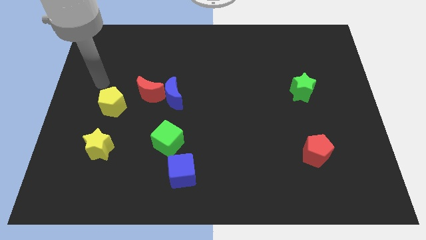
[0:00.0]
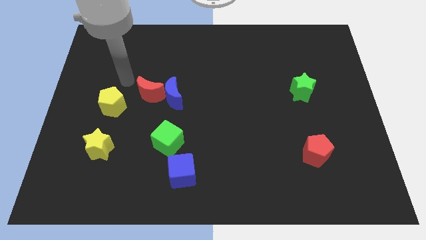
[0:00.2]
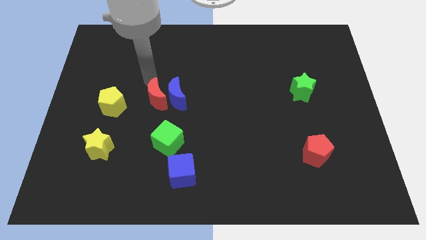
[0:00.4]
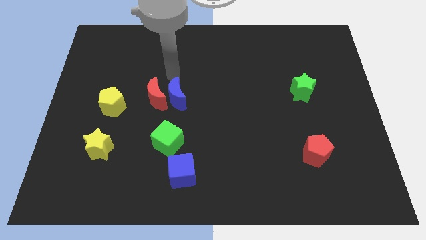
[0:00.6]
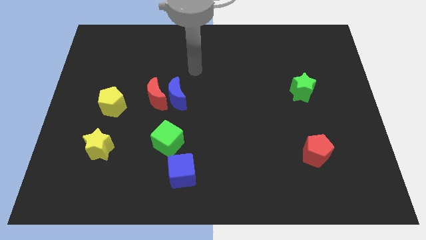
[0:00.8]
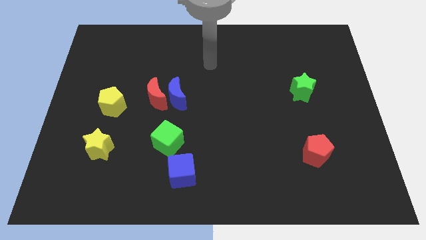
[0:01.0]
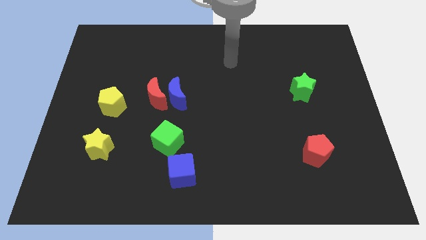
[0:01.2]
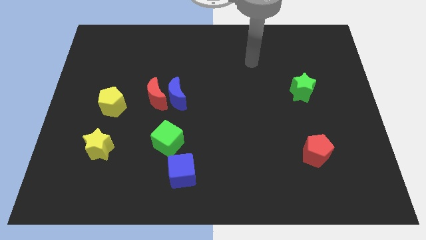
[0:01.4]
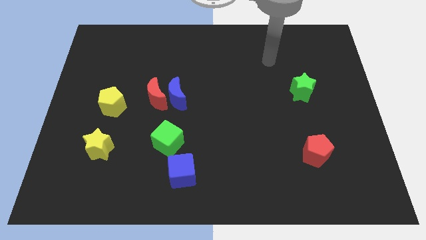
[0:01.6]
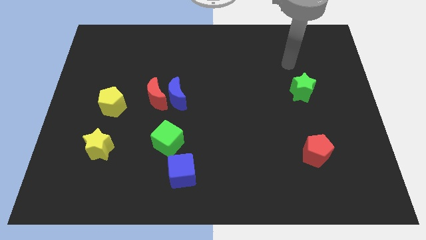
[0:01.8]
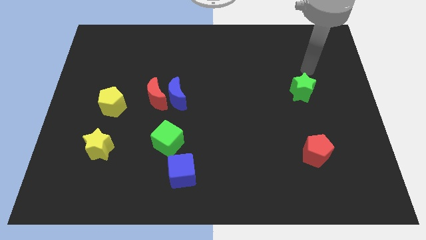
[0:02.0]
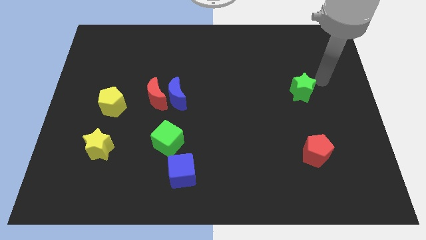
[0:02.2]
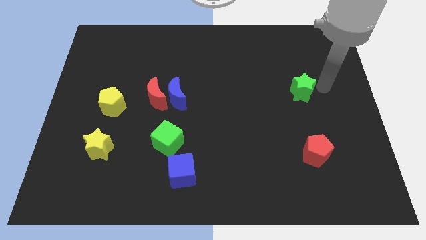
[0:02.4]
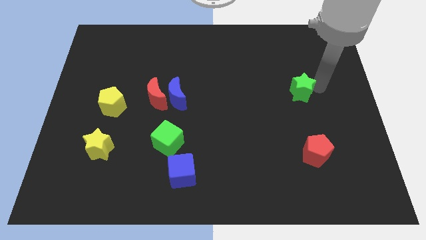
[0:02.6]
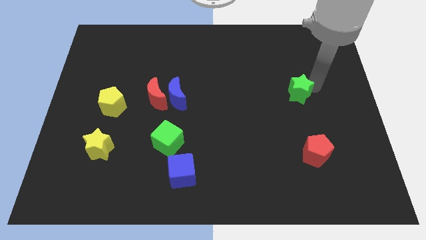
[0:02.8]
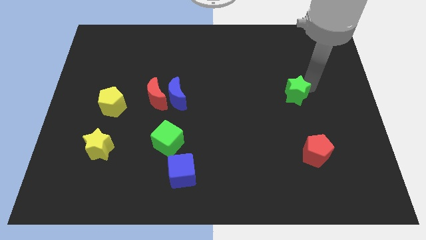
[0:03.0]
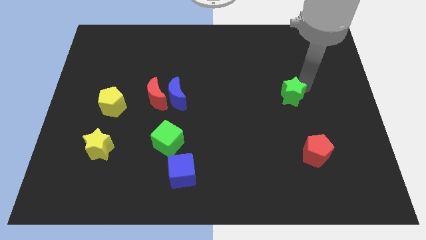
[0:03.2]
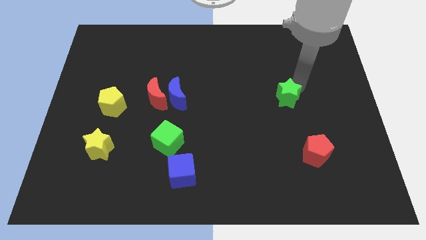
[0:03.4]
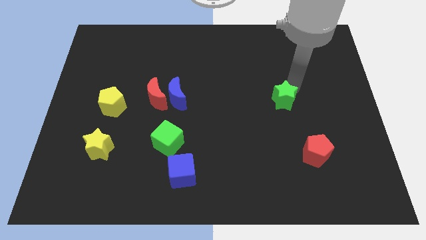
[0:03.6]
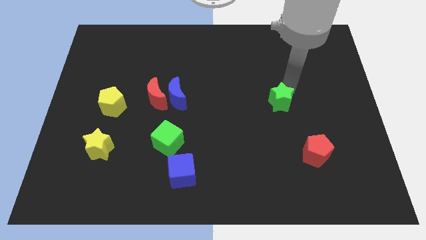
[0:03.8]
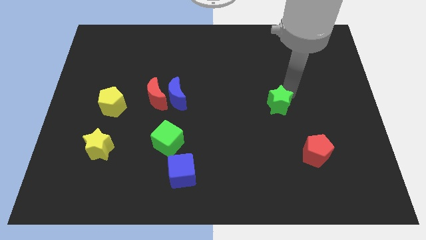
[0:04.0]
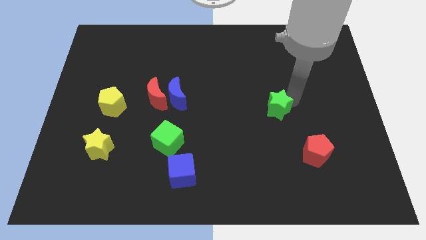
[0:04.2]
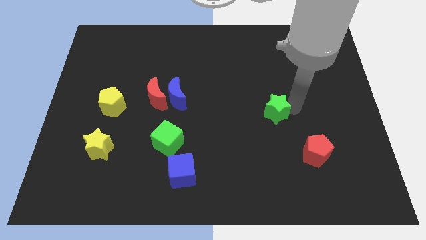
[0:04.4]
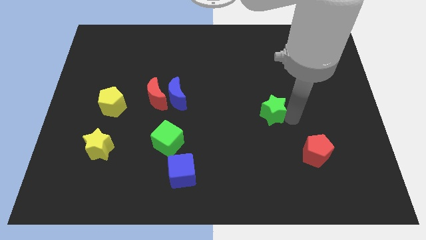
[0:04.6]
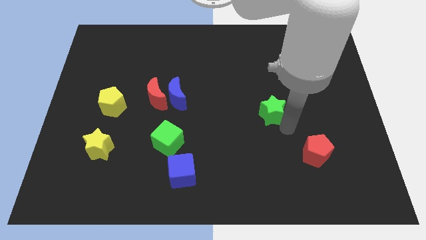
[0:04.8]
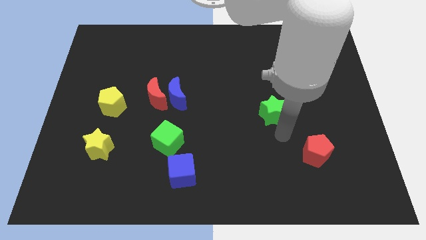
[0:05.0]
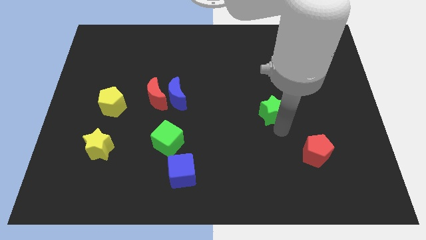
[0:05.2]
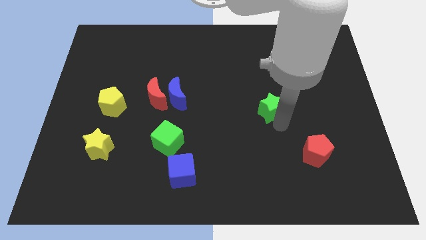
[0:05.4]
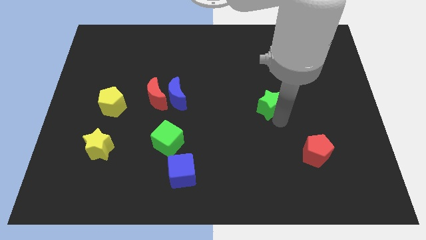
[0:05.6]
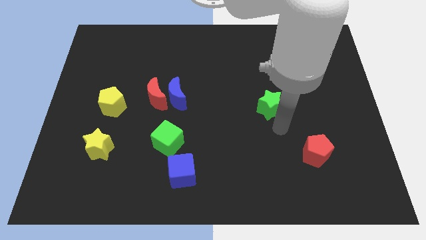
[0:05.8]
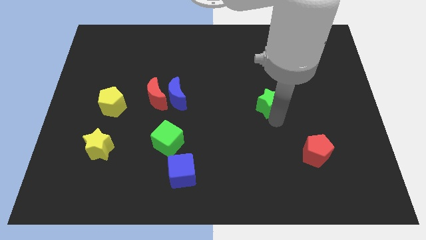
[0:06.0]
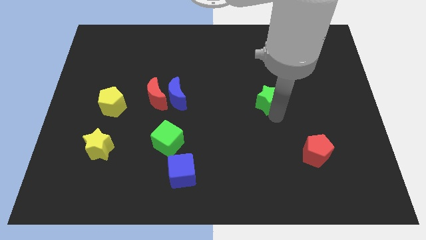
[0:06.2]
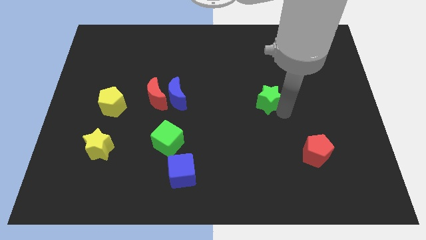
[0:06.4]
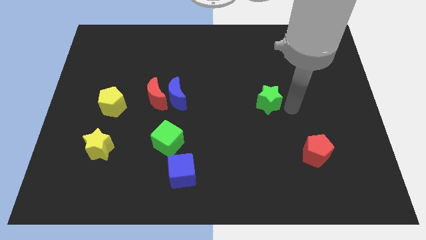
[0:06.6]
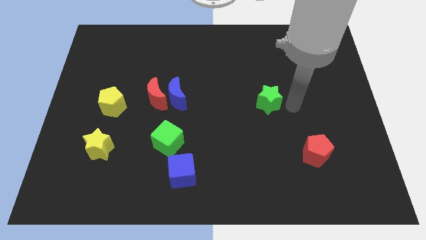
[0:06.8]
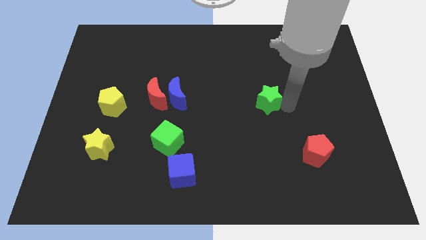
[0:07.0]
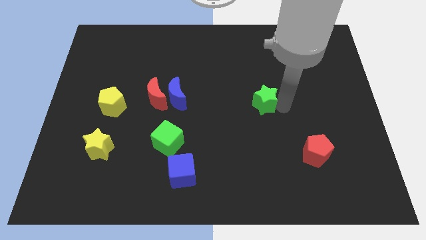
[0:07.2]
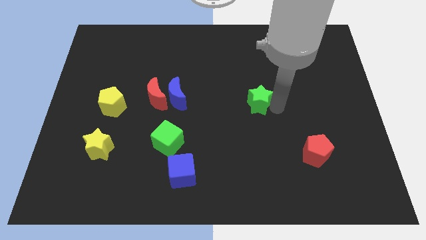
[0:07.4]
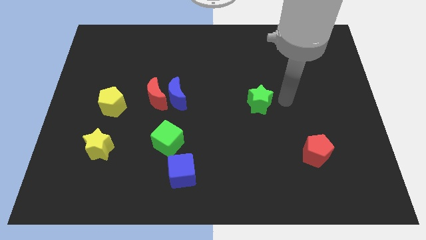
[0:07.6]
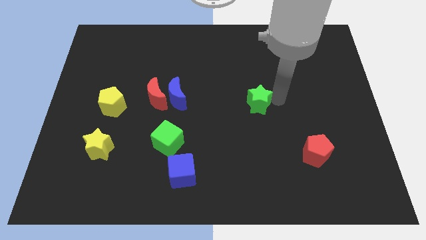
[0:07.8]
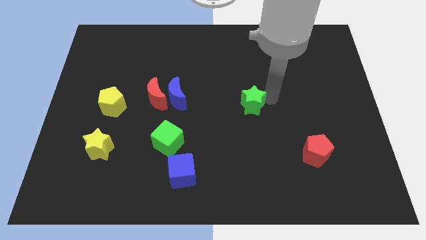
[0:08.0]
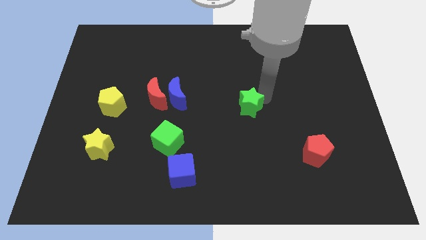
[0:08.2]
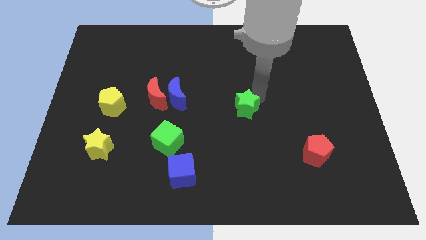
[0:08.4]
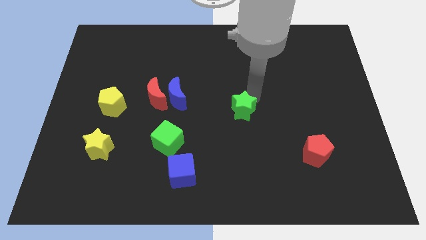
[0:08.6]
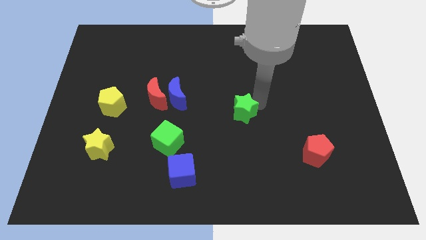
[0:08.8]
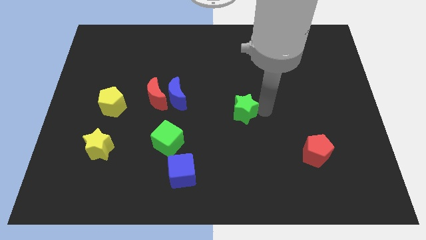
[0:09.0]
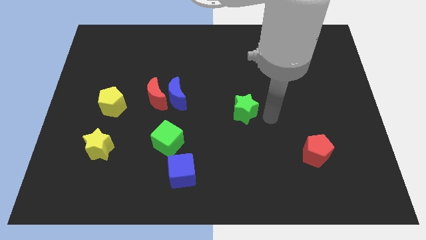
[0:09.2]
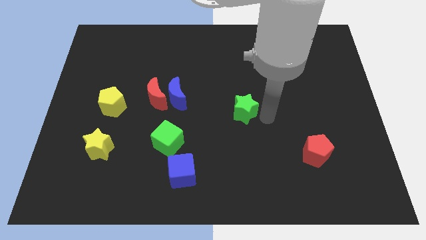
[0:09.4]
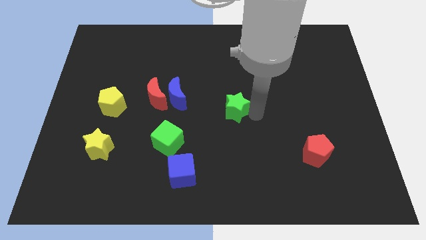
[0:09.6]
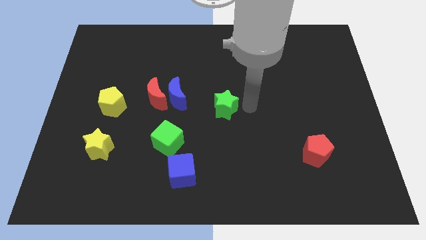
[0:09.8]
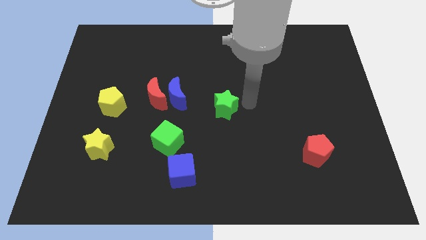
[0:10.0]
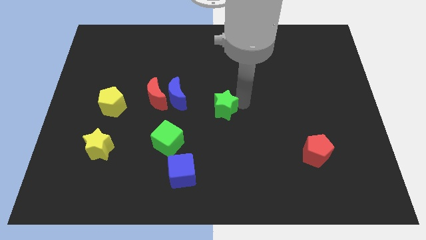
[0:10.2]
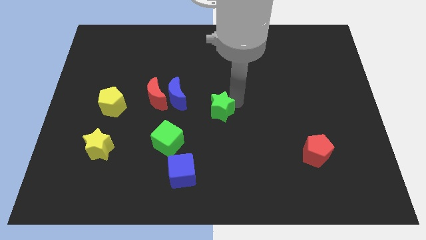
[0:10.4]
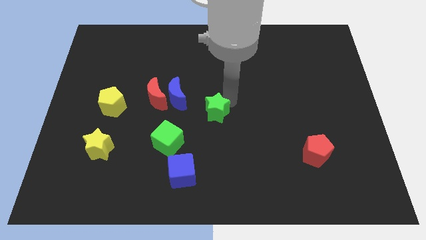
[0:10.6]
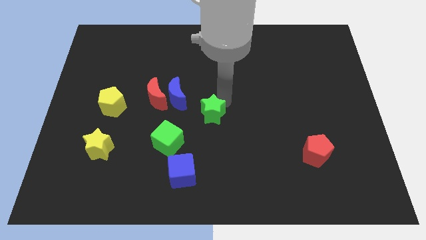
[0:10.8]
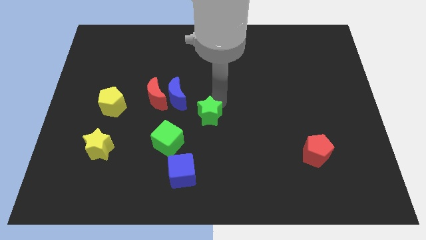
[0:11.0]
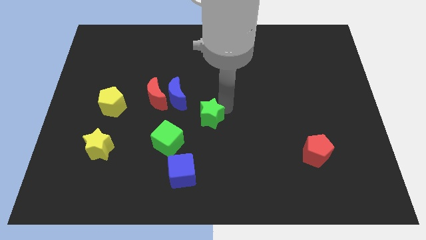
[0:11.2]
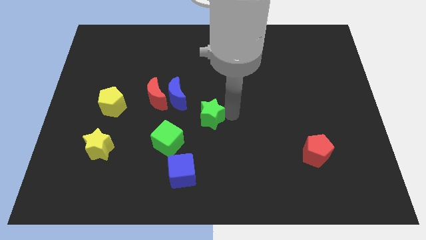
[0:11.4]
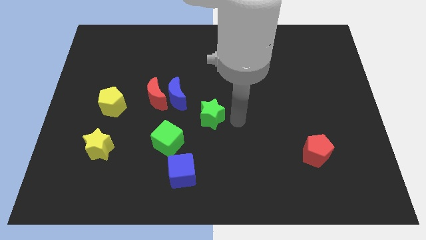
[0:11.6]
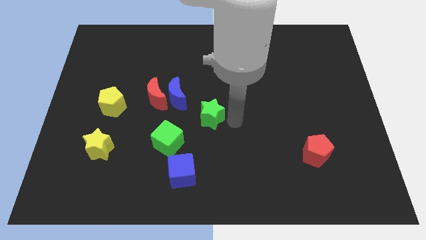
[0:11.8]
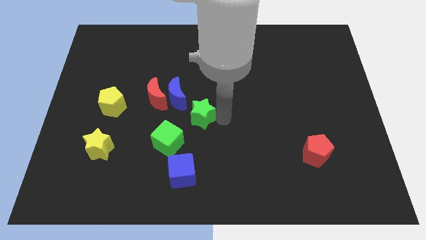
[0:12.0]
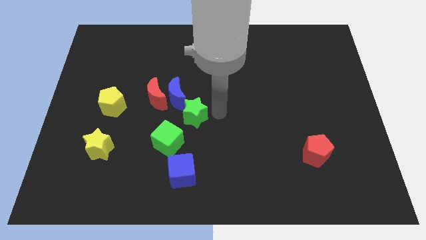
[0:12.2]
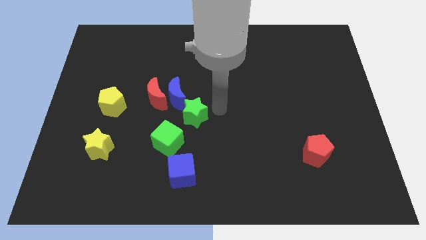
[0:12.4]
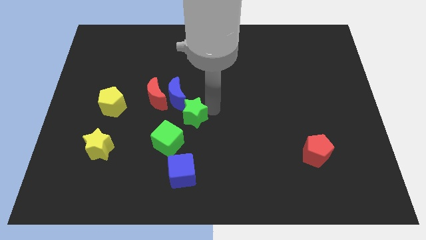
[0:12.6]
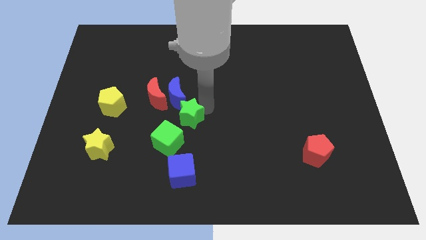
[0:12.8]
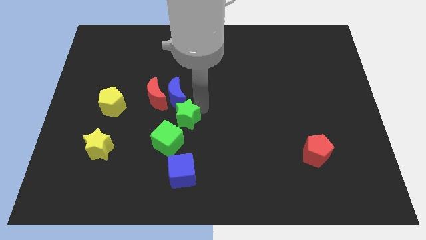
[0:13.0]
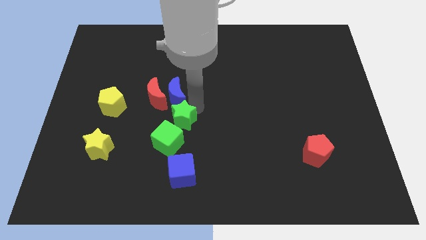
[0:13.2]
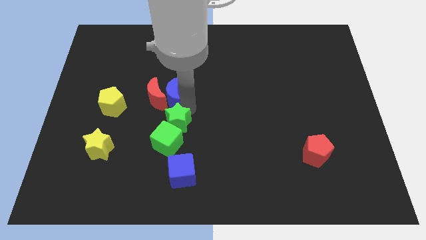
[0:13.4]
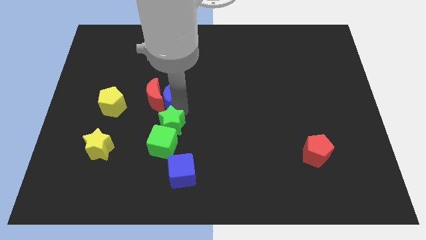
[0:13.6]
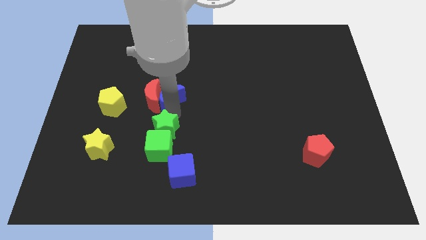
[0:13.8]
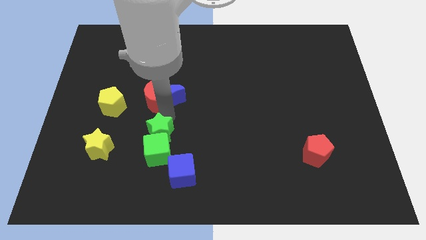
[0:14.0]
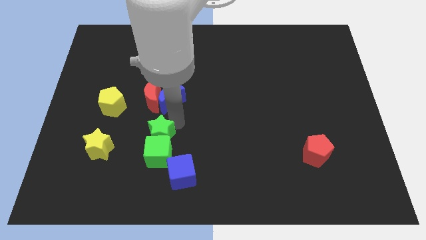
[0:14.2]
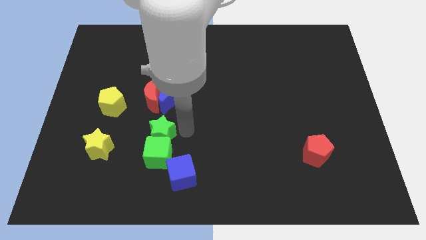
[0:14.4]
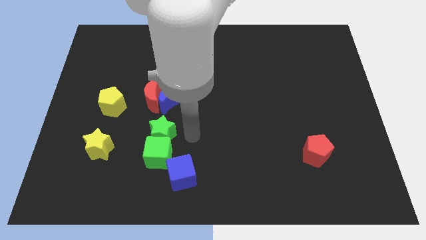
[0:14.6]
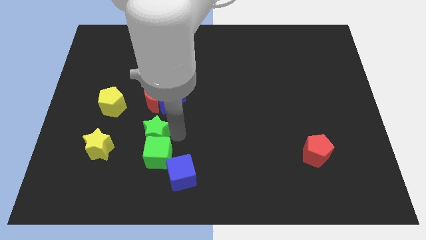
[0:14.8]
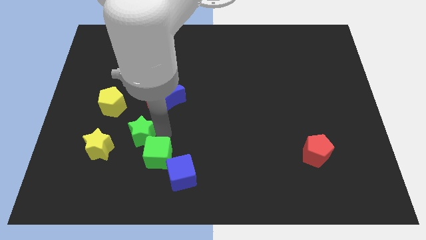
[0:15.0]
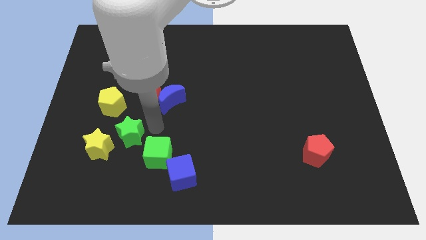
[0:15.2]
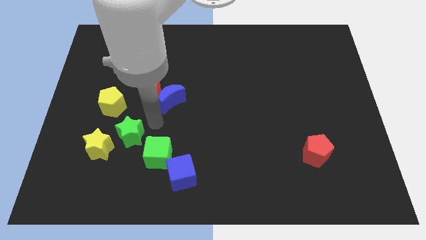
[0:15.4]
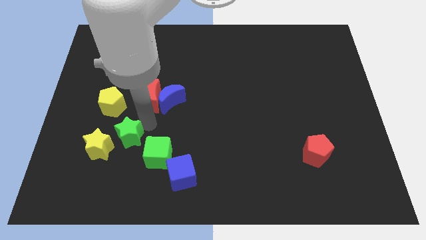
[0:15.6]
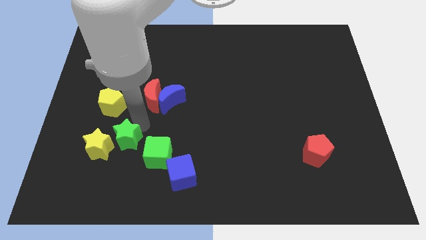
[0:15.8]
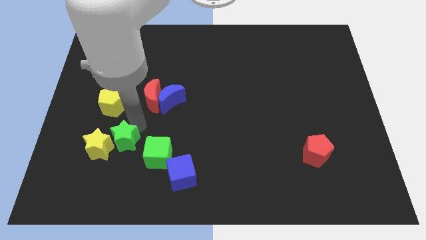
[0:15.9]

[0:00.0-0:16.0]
slide the green star towards the yellow star
